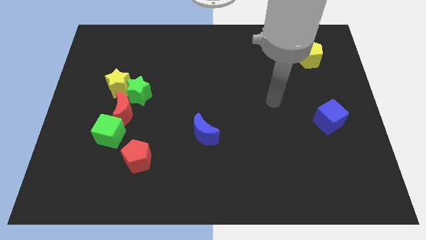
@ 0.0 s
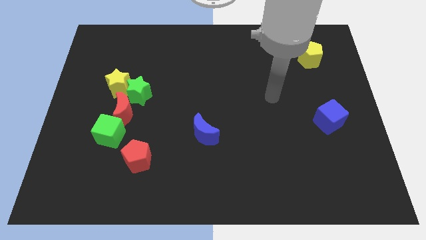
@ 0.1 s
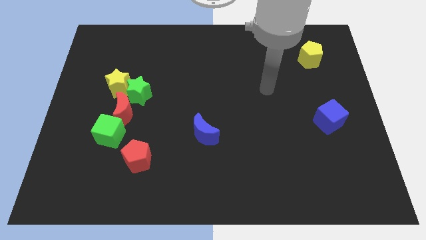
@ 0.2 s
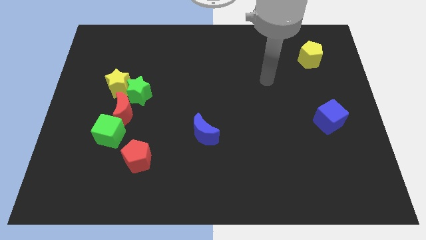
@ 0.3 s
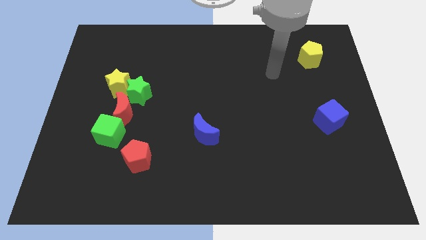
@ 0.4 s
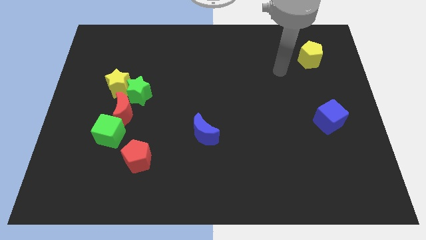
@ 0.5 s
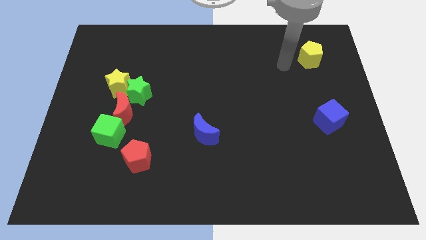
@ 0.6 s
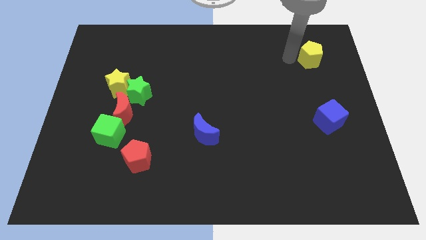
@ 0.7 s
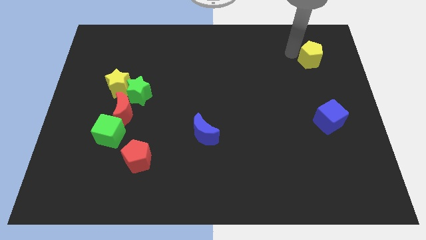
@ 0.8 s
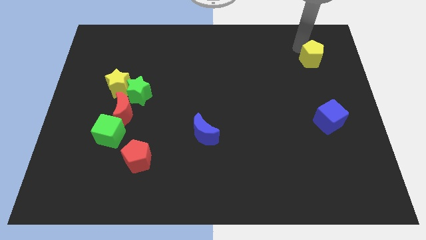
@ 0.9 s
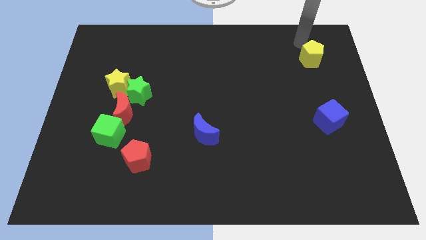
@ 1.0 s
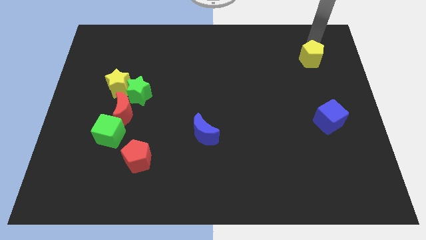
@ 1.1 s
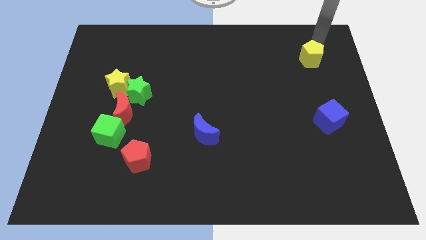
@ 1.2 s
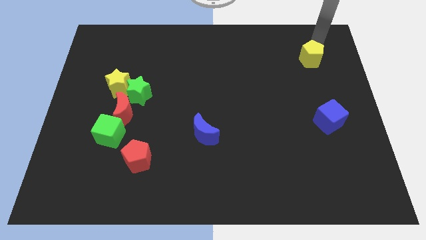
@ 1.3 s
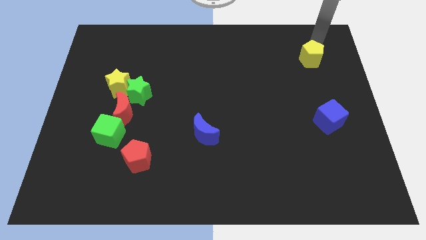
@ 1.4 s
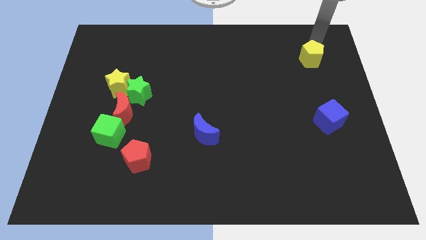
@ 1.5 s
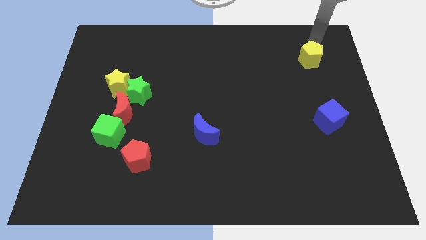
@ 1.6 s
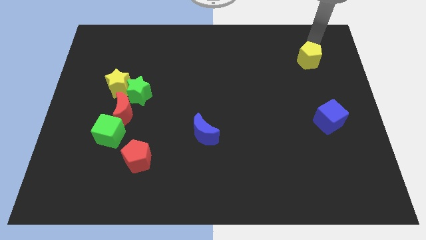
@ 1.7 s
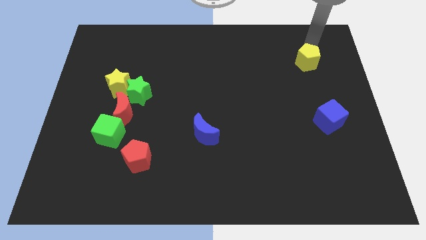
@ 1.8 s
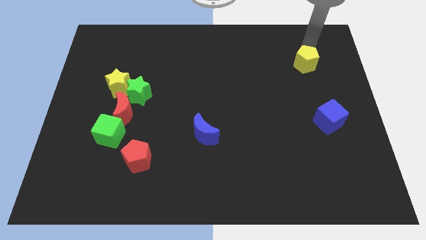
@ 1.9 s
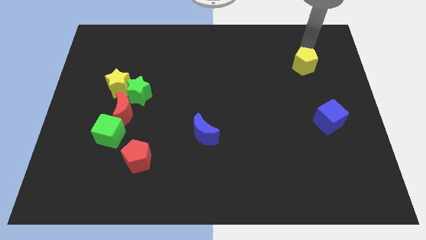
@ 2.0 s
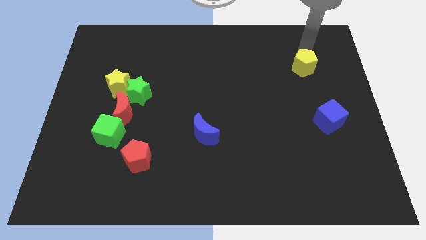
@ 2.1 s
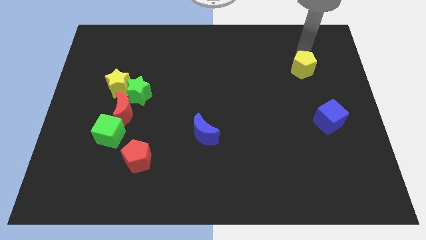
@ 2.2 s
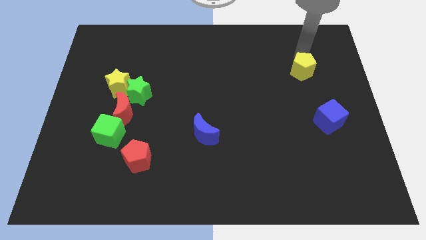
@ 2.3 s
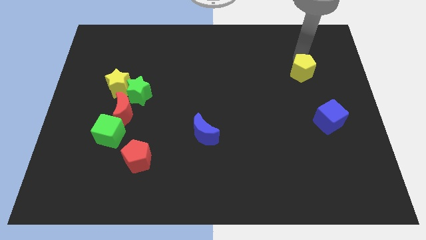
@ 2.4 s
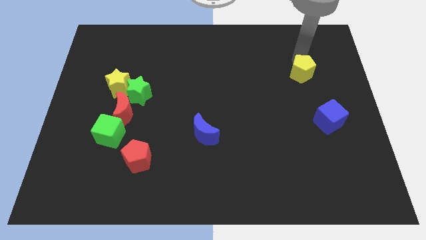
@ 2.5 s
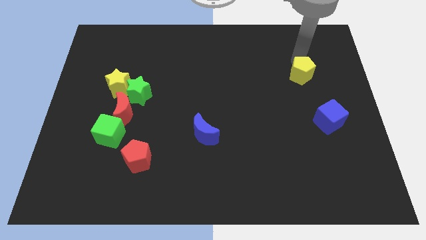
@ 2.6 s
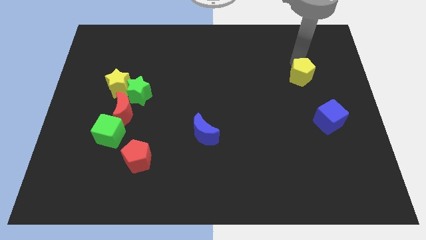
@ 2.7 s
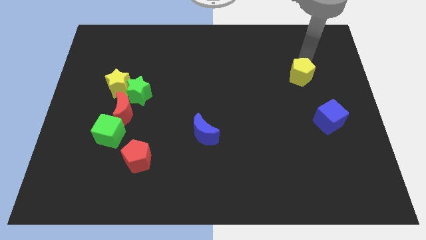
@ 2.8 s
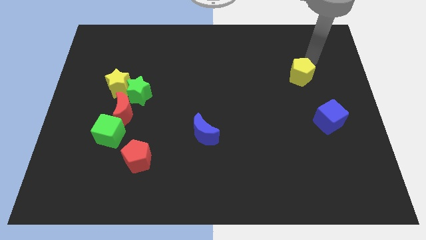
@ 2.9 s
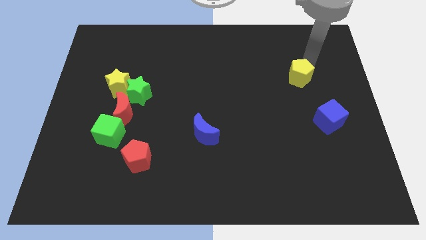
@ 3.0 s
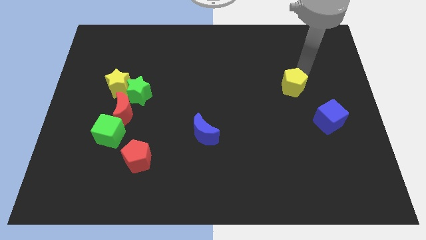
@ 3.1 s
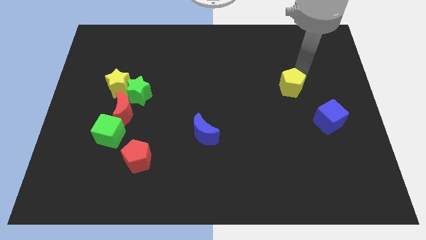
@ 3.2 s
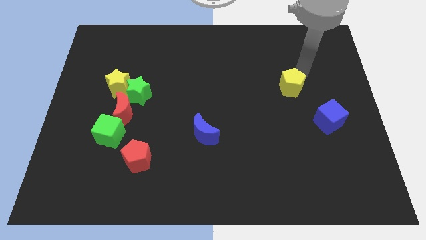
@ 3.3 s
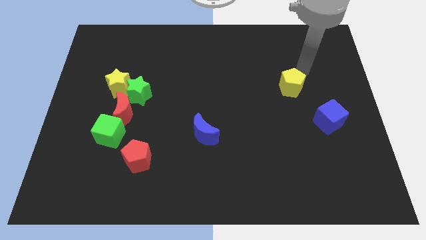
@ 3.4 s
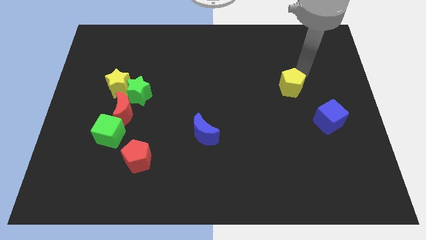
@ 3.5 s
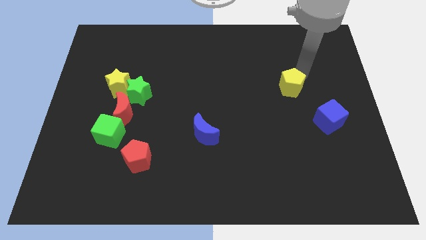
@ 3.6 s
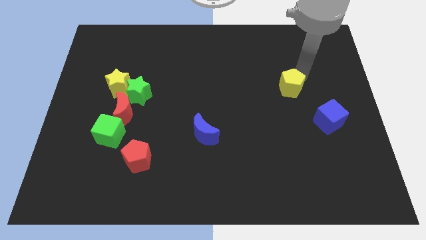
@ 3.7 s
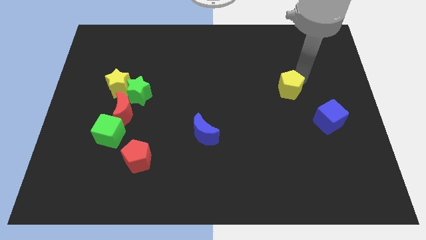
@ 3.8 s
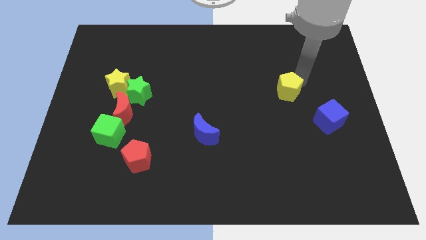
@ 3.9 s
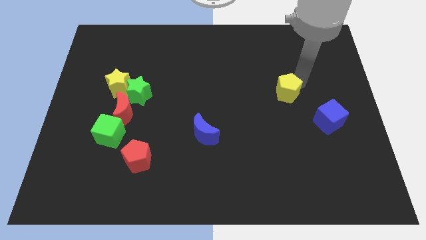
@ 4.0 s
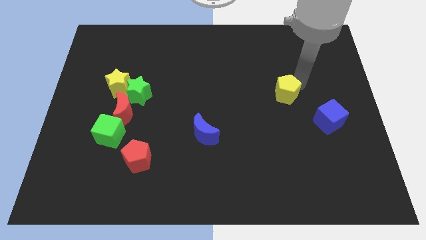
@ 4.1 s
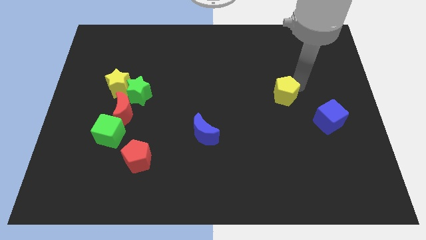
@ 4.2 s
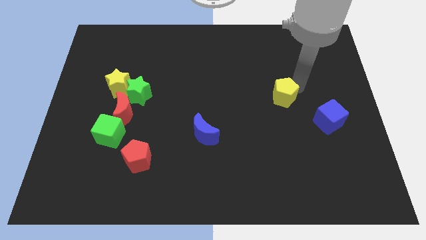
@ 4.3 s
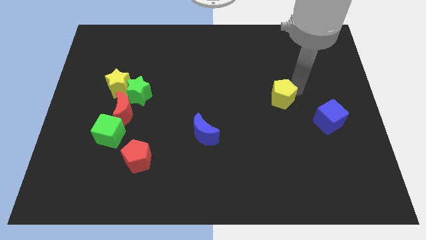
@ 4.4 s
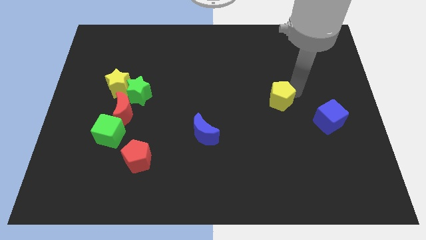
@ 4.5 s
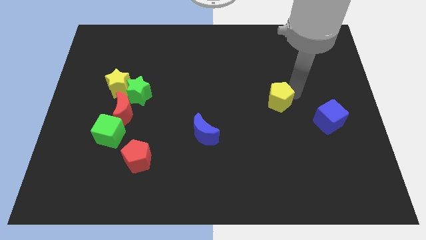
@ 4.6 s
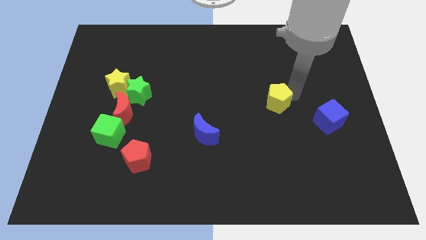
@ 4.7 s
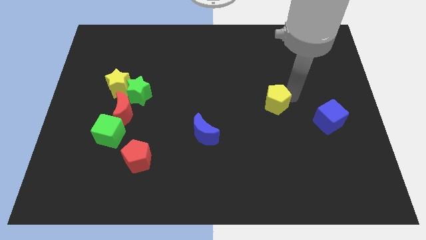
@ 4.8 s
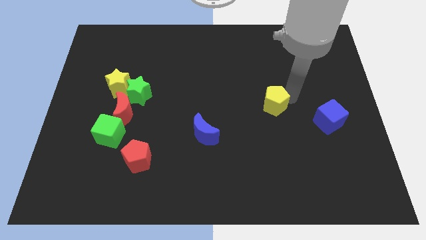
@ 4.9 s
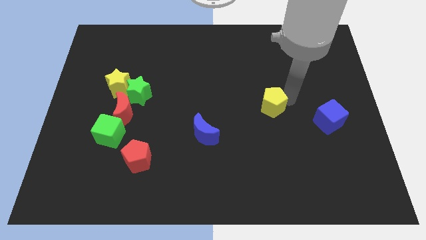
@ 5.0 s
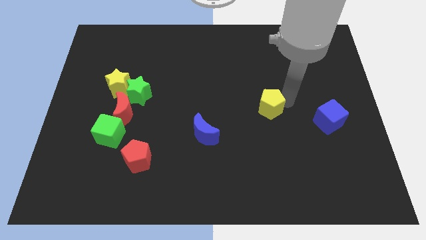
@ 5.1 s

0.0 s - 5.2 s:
slide the yellow pentagon diagonally downwards and to the left

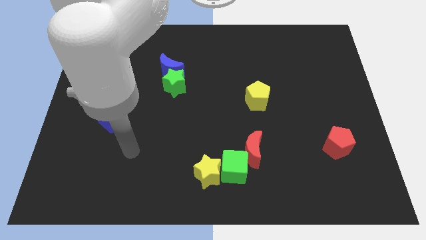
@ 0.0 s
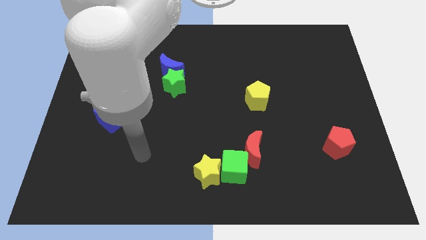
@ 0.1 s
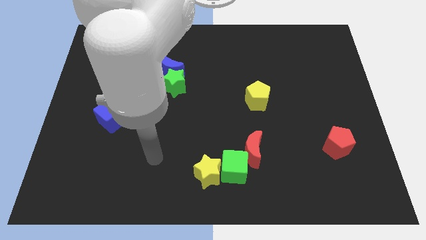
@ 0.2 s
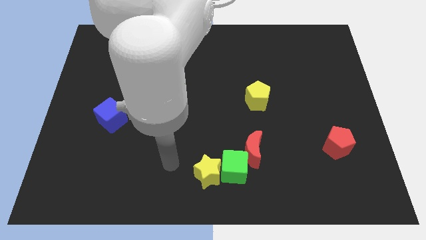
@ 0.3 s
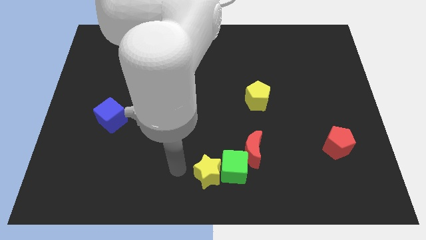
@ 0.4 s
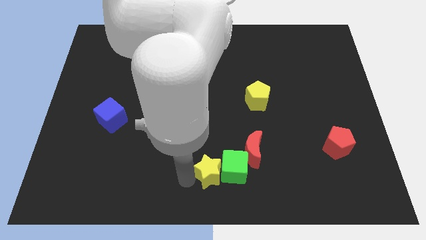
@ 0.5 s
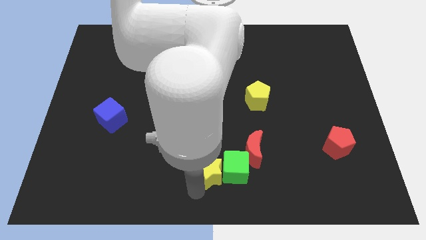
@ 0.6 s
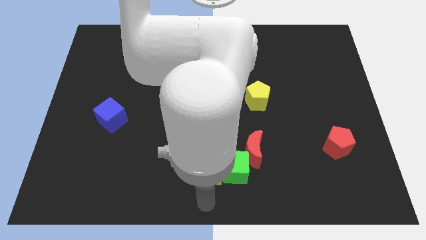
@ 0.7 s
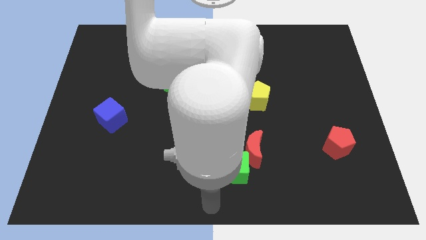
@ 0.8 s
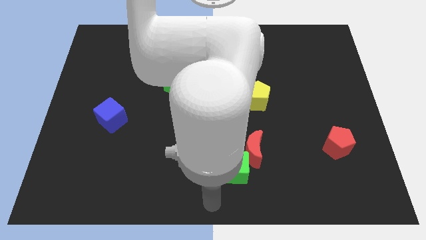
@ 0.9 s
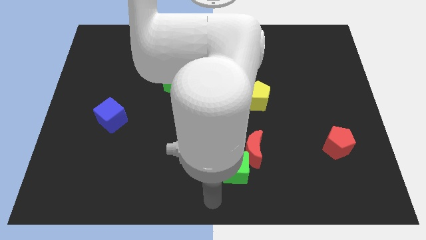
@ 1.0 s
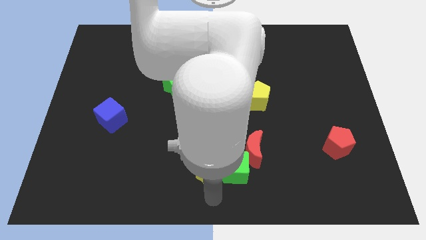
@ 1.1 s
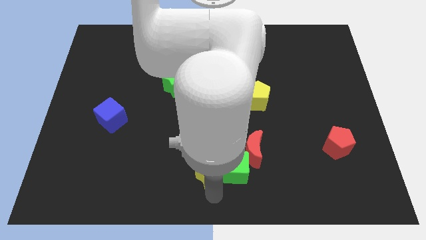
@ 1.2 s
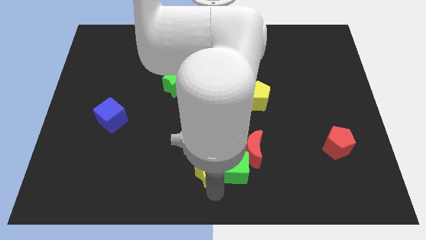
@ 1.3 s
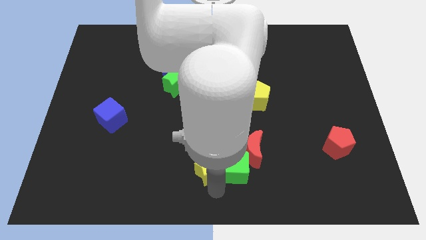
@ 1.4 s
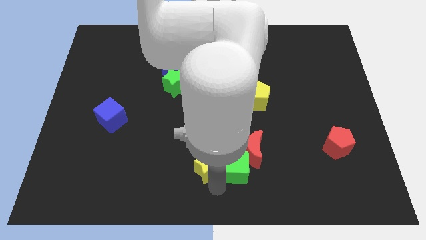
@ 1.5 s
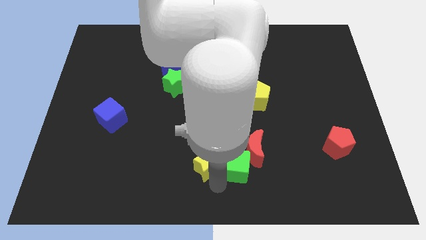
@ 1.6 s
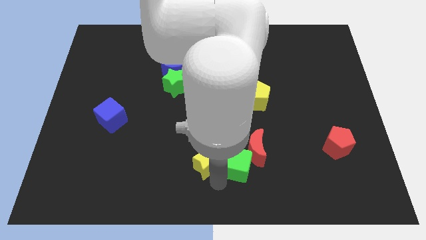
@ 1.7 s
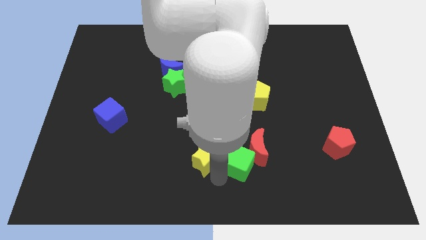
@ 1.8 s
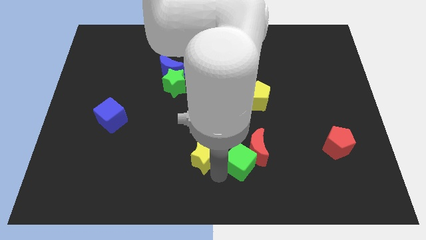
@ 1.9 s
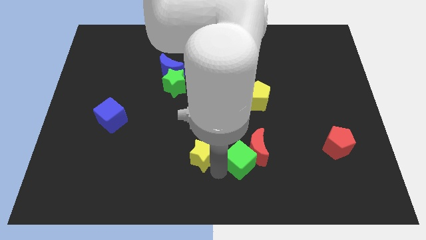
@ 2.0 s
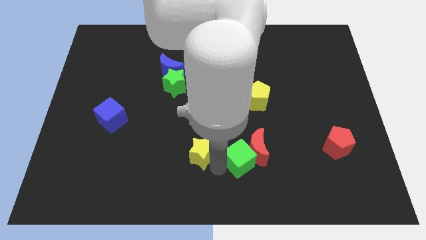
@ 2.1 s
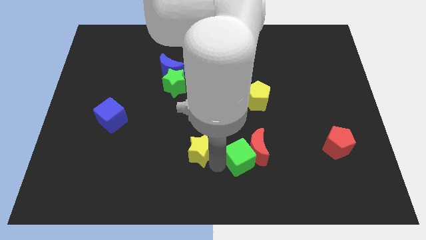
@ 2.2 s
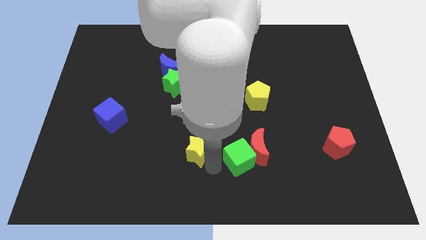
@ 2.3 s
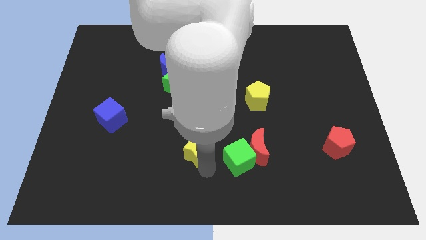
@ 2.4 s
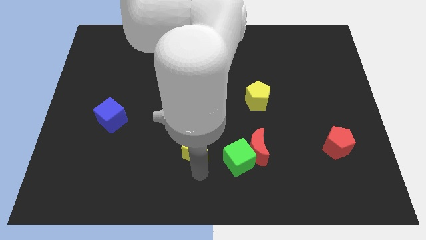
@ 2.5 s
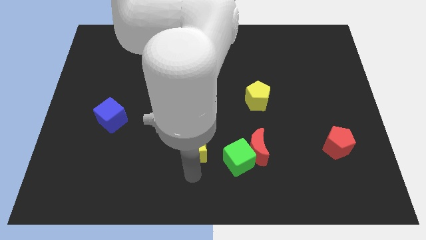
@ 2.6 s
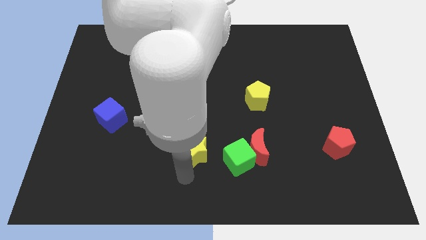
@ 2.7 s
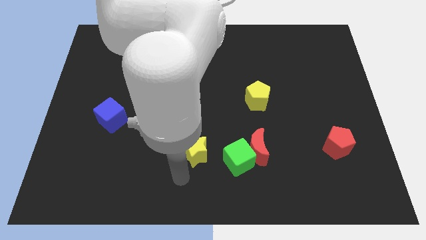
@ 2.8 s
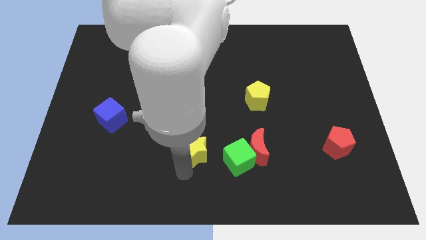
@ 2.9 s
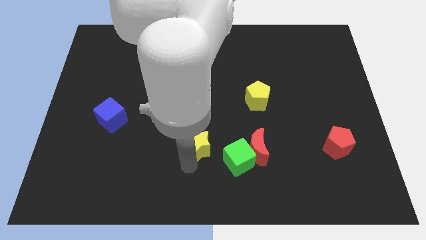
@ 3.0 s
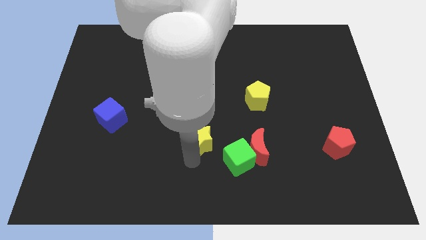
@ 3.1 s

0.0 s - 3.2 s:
slightly push the yellow star upwards
